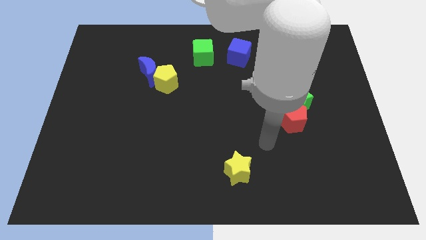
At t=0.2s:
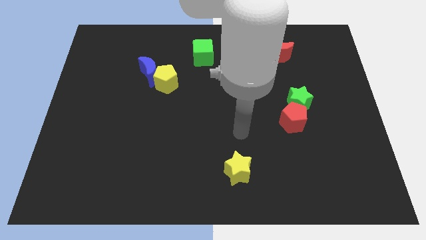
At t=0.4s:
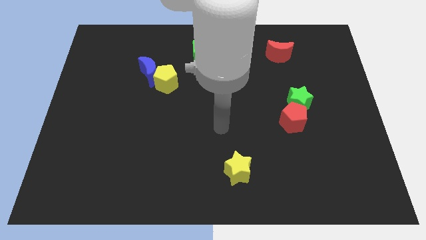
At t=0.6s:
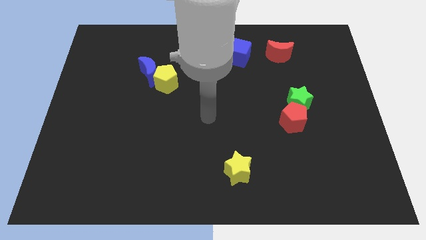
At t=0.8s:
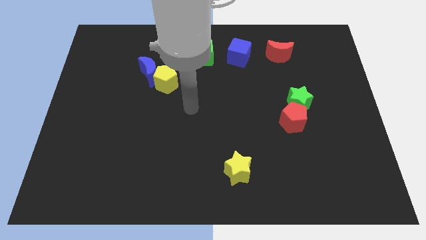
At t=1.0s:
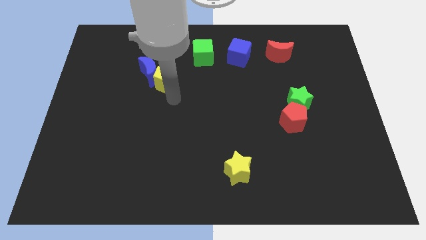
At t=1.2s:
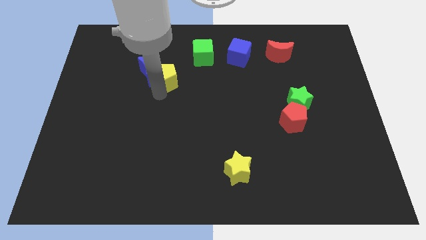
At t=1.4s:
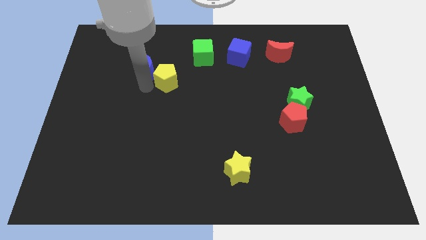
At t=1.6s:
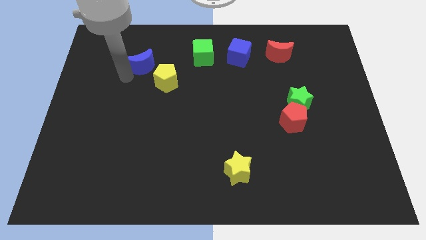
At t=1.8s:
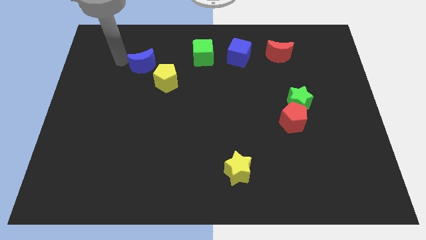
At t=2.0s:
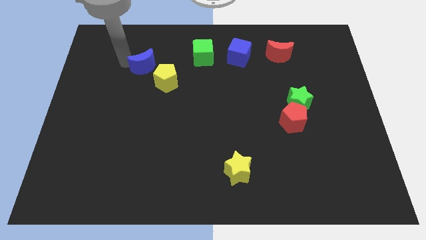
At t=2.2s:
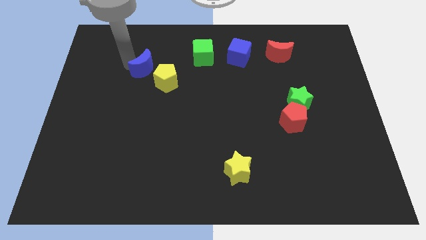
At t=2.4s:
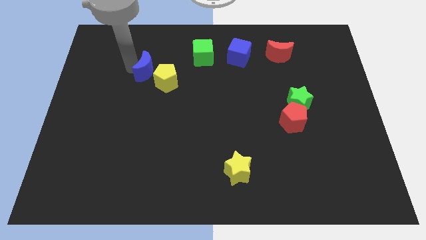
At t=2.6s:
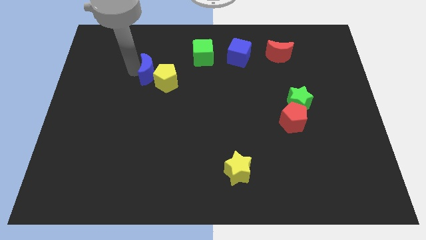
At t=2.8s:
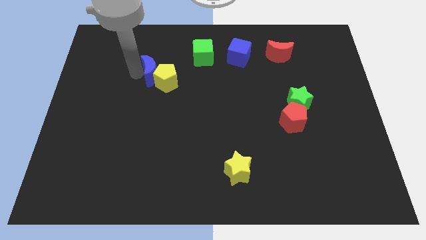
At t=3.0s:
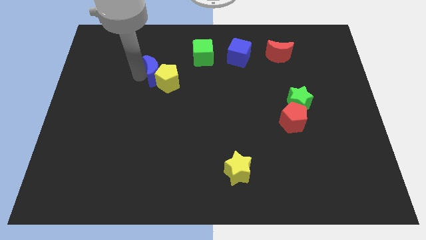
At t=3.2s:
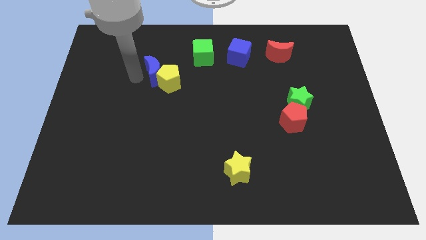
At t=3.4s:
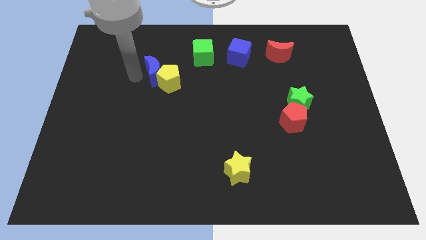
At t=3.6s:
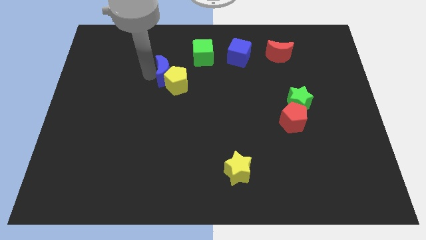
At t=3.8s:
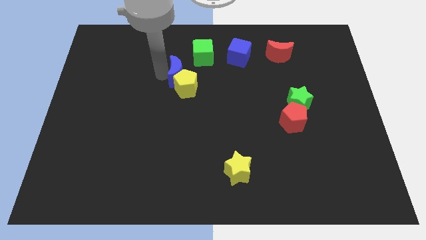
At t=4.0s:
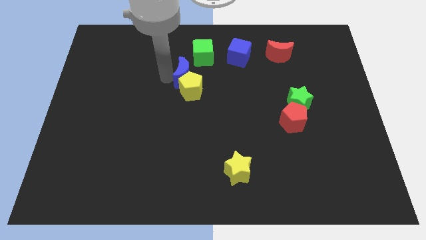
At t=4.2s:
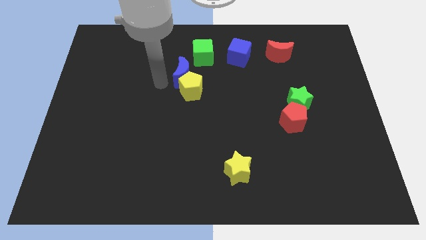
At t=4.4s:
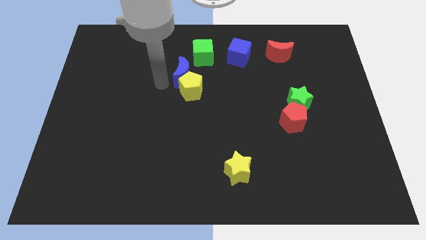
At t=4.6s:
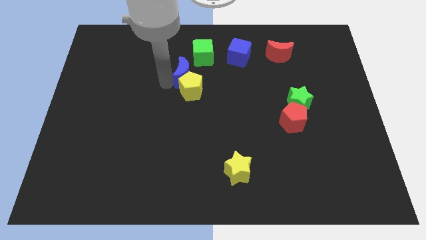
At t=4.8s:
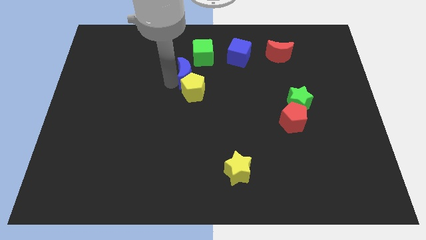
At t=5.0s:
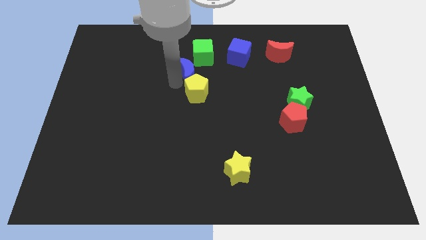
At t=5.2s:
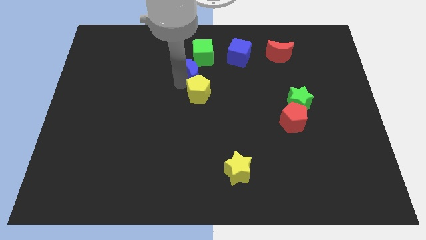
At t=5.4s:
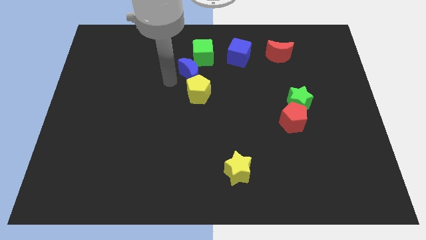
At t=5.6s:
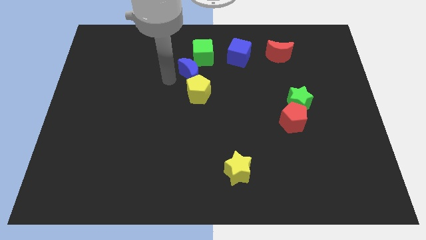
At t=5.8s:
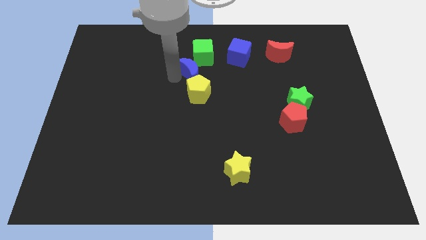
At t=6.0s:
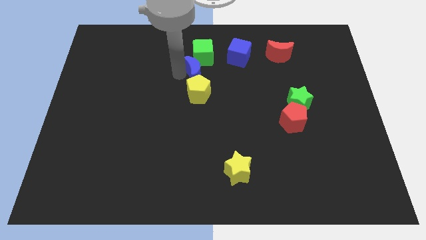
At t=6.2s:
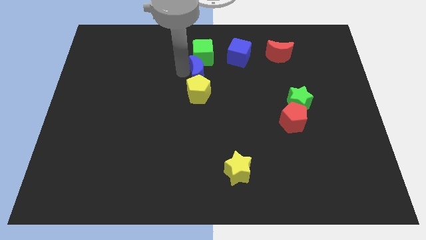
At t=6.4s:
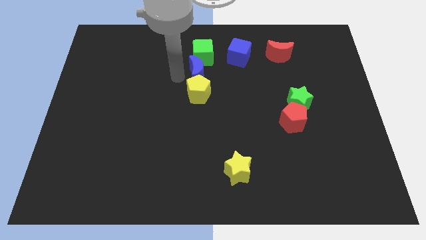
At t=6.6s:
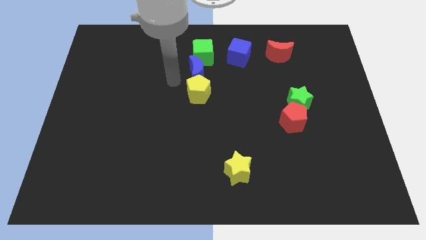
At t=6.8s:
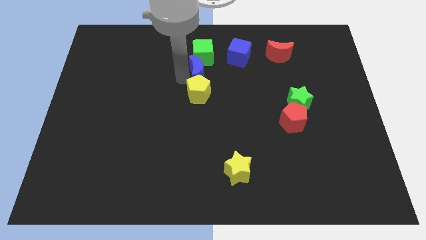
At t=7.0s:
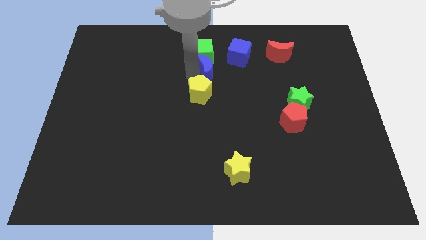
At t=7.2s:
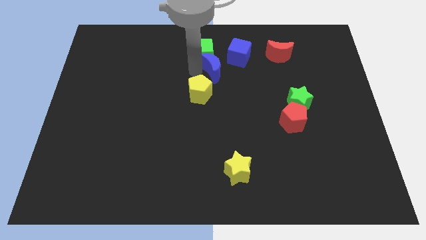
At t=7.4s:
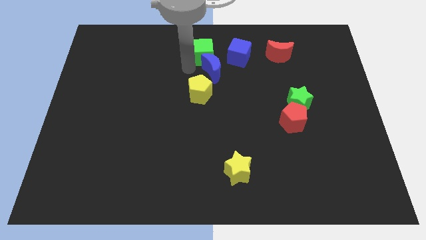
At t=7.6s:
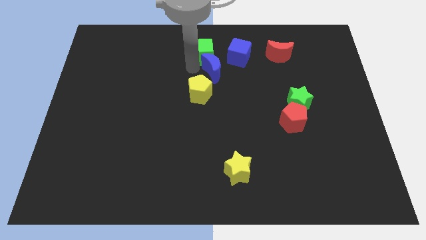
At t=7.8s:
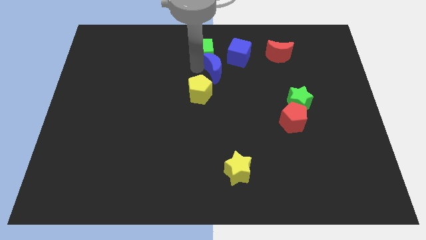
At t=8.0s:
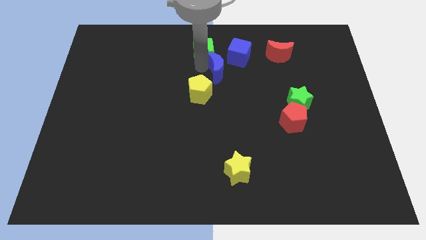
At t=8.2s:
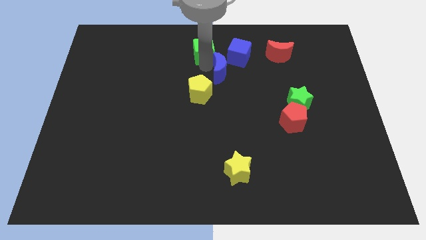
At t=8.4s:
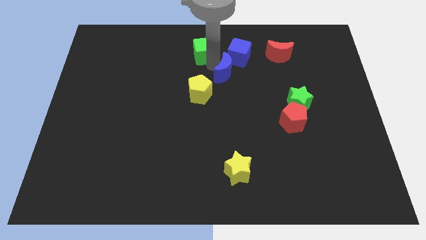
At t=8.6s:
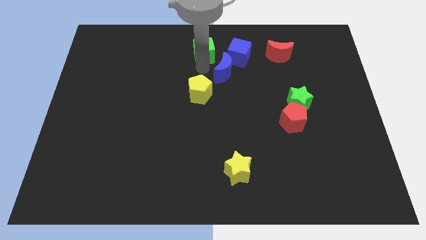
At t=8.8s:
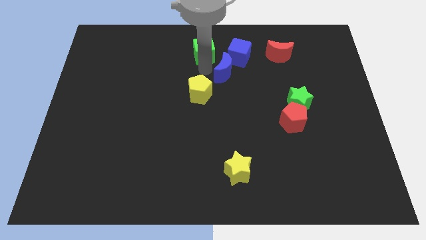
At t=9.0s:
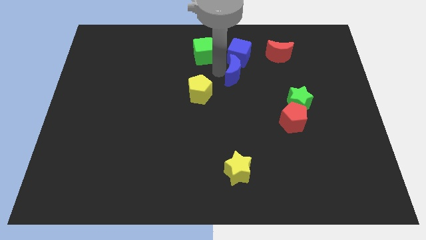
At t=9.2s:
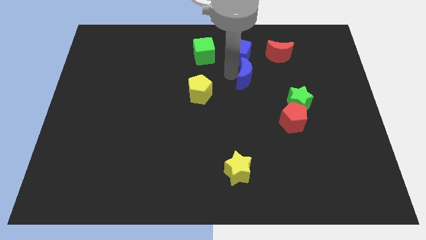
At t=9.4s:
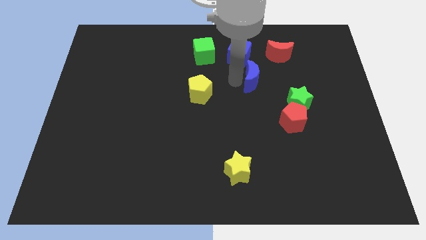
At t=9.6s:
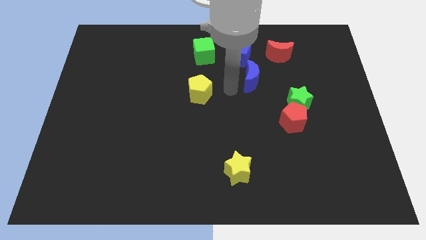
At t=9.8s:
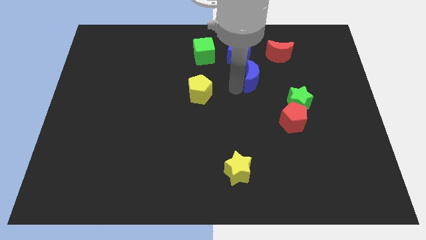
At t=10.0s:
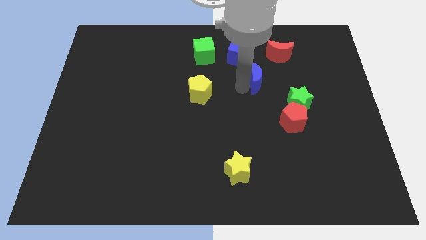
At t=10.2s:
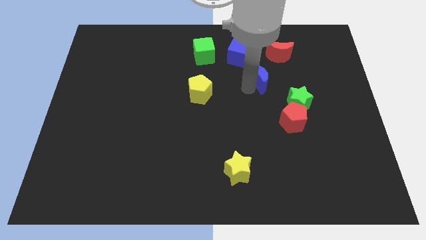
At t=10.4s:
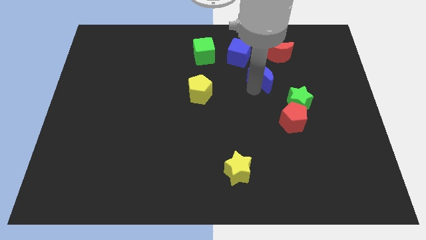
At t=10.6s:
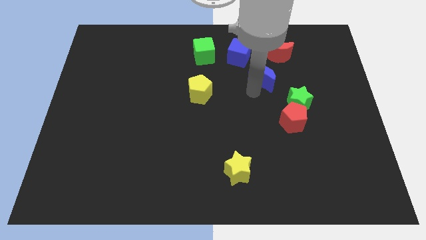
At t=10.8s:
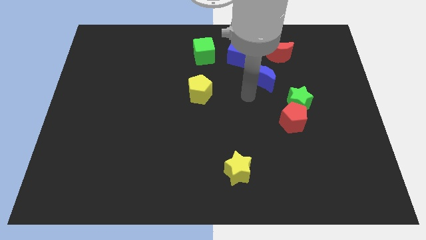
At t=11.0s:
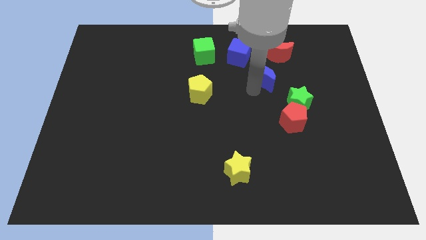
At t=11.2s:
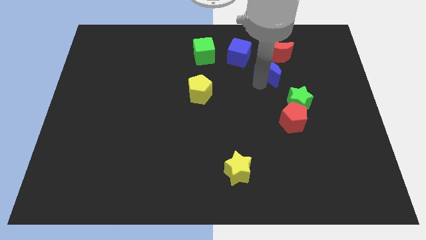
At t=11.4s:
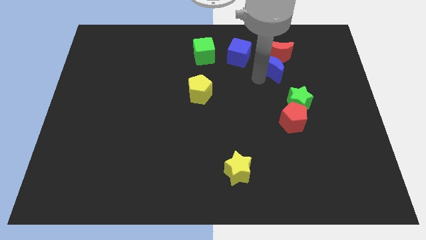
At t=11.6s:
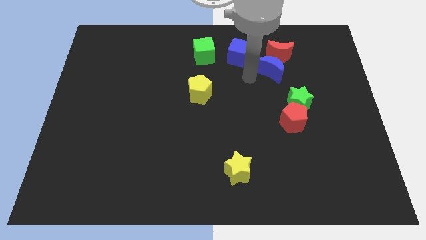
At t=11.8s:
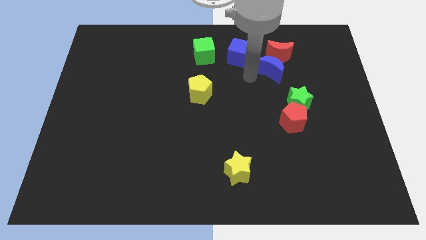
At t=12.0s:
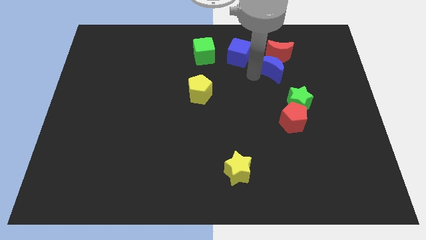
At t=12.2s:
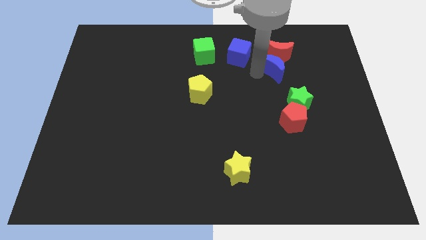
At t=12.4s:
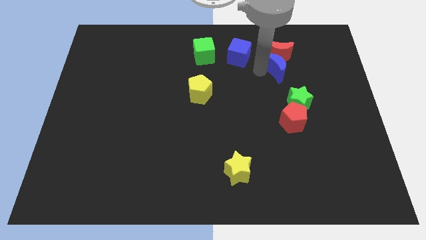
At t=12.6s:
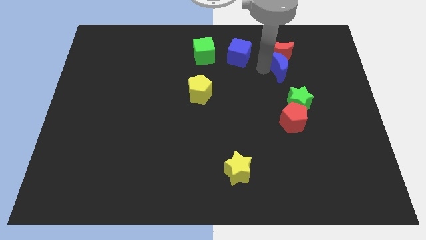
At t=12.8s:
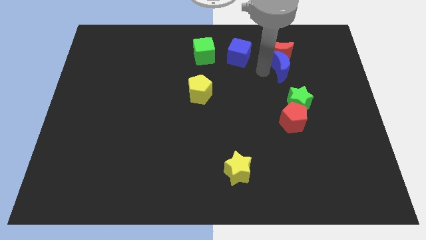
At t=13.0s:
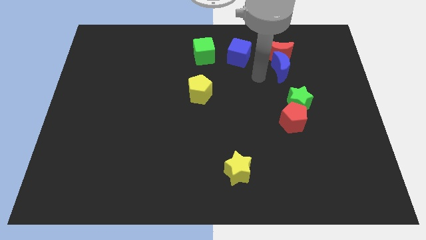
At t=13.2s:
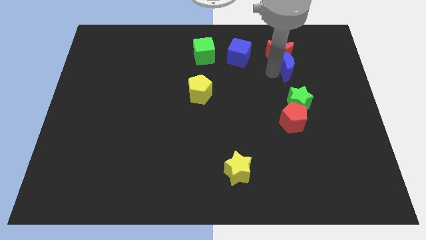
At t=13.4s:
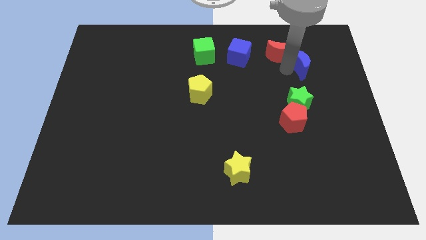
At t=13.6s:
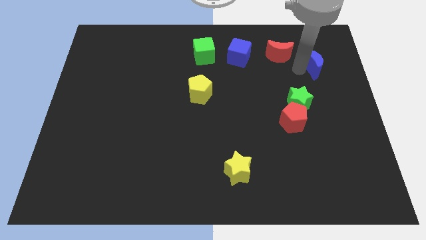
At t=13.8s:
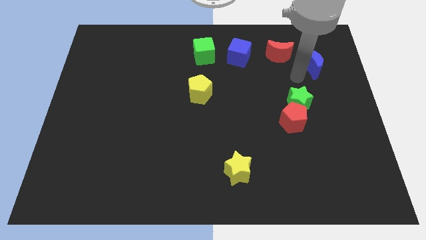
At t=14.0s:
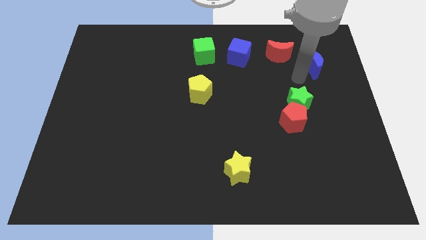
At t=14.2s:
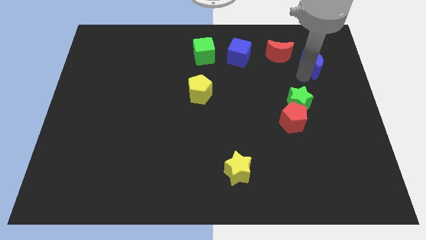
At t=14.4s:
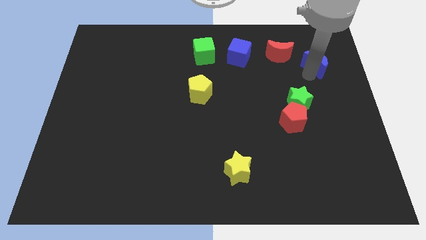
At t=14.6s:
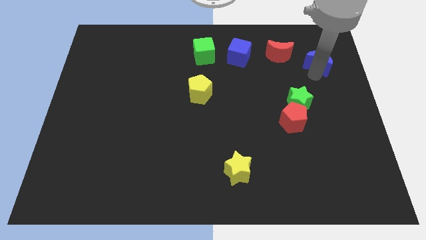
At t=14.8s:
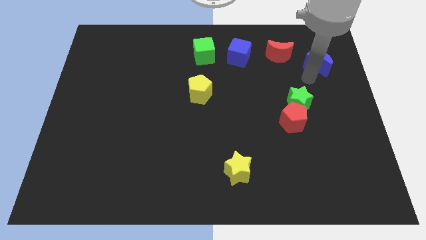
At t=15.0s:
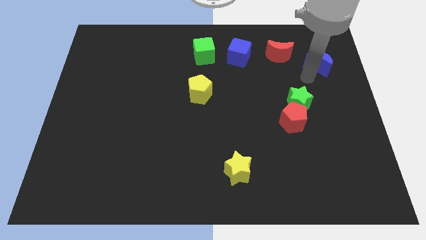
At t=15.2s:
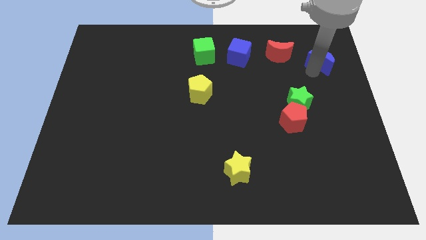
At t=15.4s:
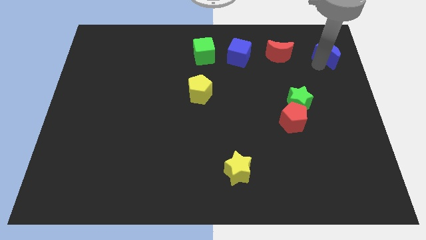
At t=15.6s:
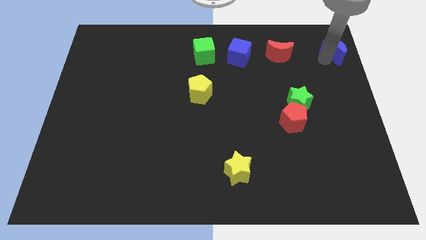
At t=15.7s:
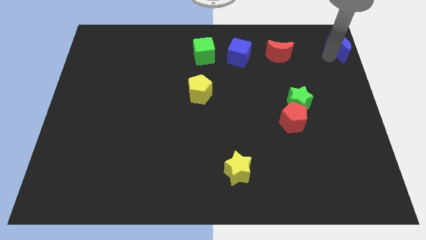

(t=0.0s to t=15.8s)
slide the blue moon to the top right of the board

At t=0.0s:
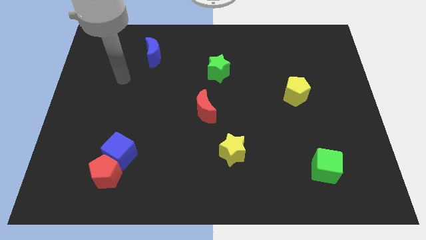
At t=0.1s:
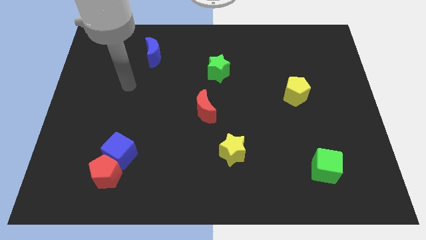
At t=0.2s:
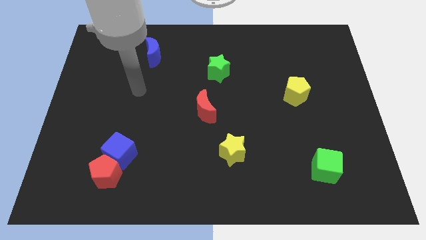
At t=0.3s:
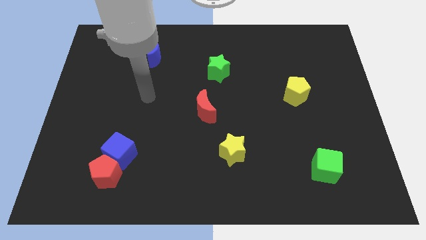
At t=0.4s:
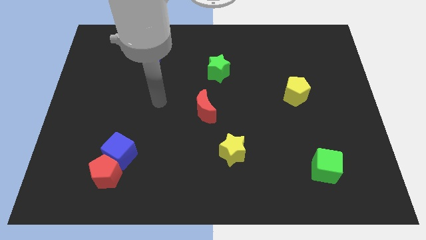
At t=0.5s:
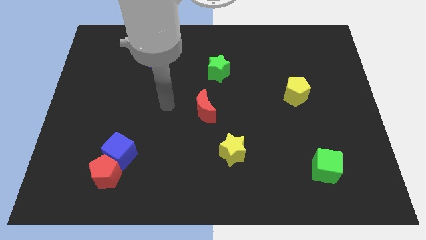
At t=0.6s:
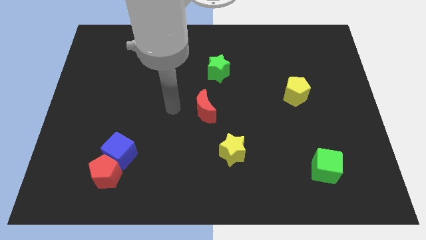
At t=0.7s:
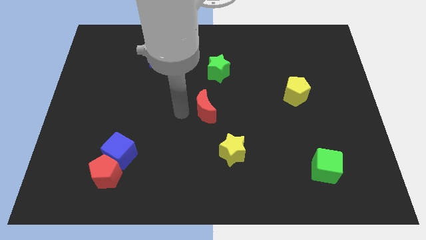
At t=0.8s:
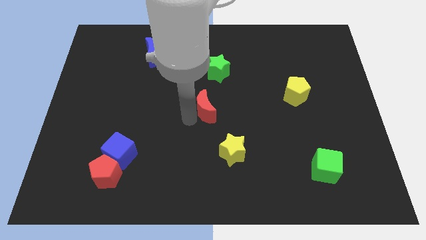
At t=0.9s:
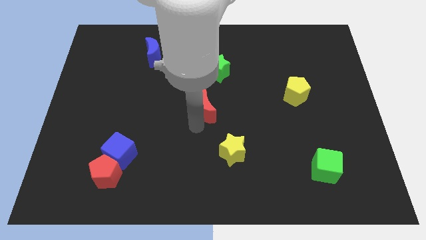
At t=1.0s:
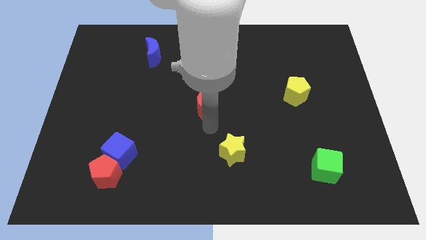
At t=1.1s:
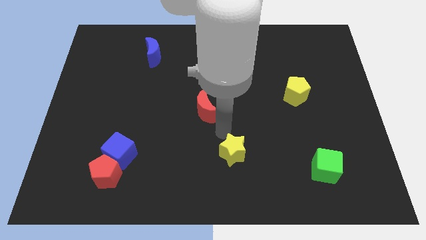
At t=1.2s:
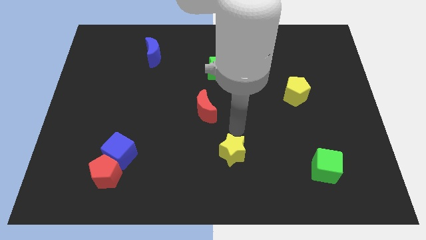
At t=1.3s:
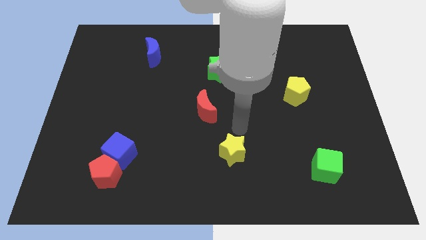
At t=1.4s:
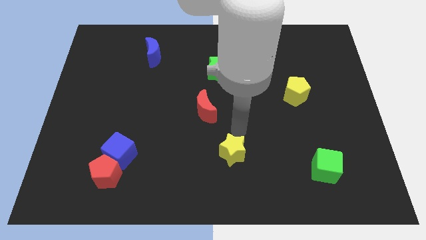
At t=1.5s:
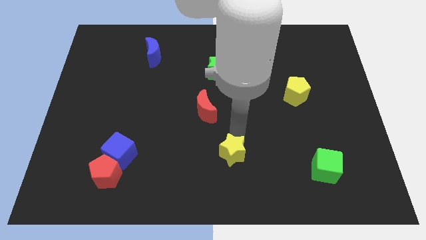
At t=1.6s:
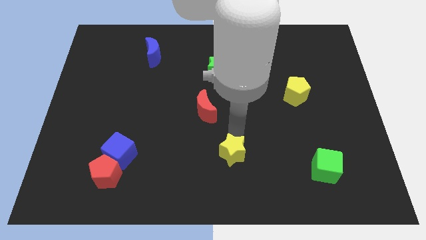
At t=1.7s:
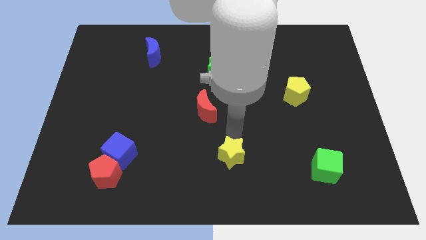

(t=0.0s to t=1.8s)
move the yellow star to the bottom side
